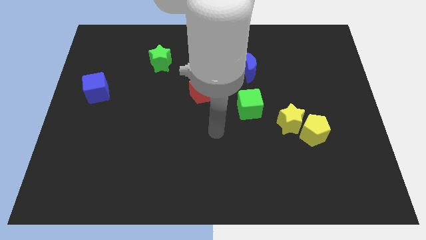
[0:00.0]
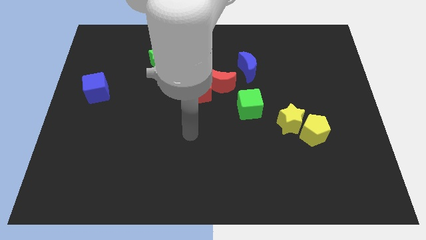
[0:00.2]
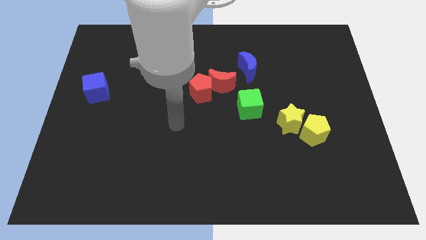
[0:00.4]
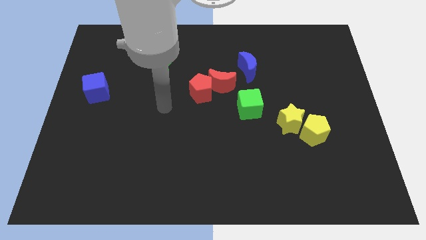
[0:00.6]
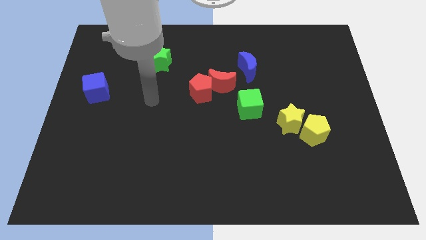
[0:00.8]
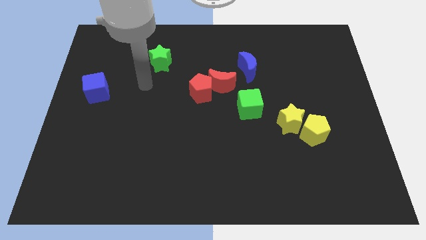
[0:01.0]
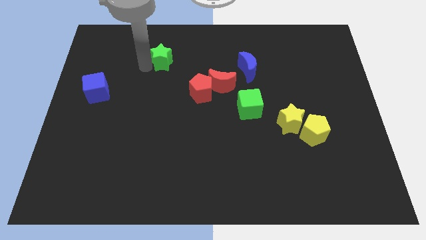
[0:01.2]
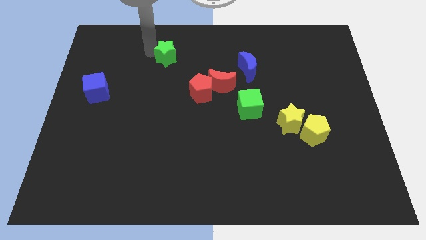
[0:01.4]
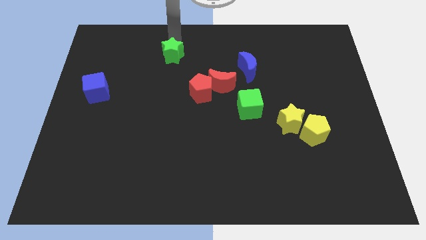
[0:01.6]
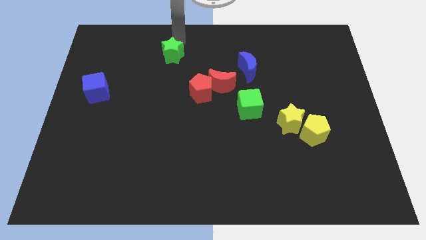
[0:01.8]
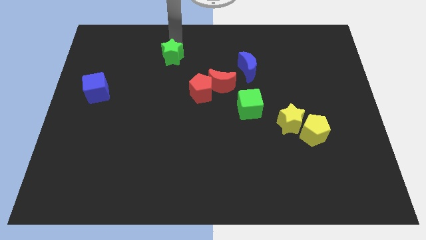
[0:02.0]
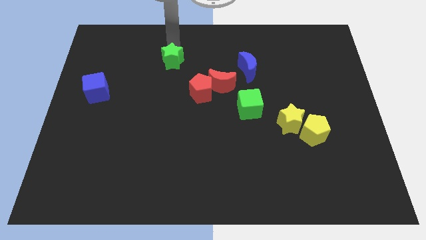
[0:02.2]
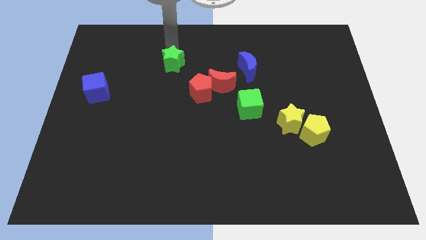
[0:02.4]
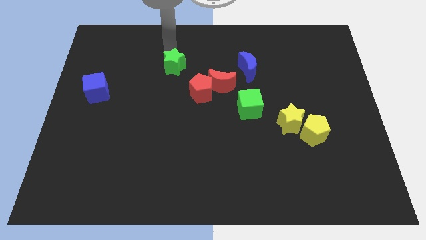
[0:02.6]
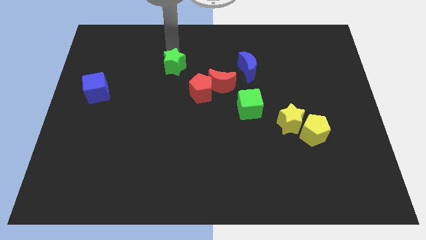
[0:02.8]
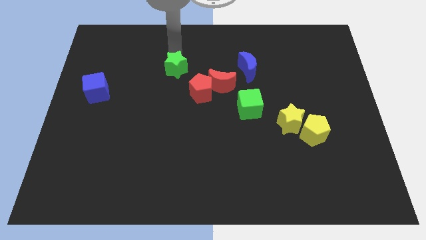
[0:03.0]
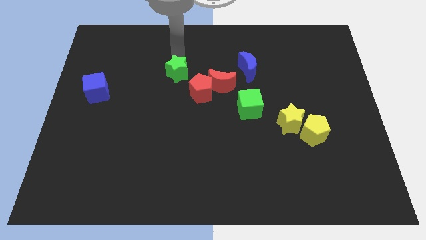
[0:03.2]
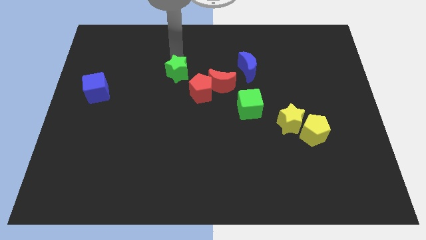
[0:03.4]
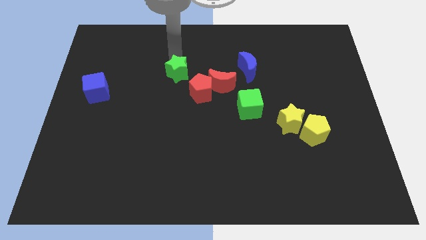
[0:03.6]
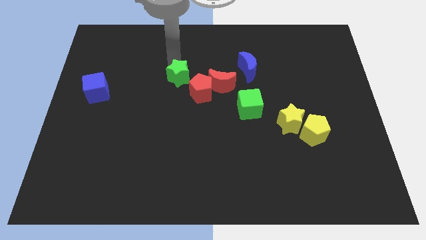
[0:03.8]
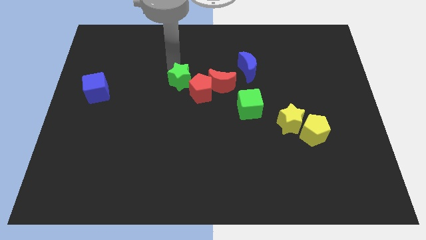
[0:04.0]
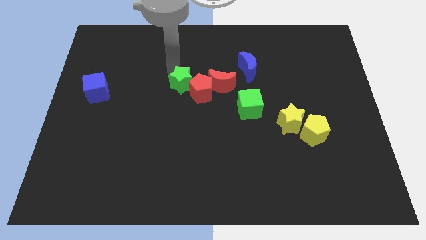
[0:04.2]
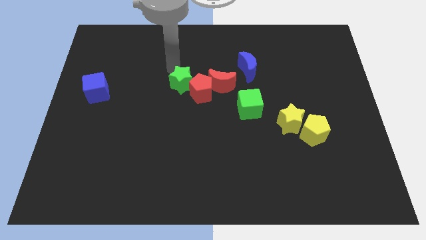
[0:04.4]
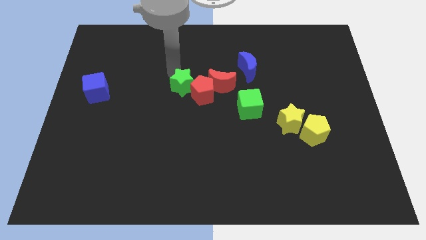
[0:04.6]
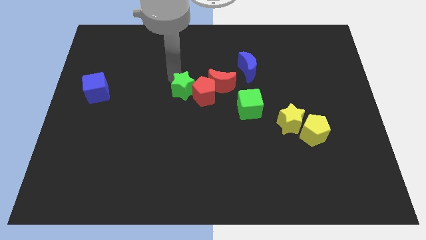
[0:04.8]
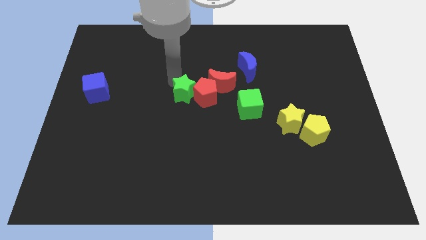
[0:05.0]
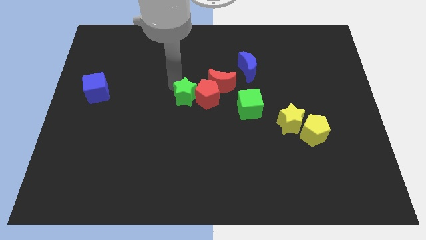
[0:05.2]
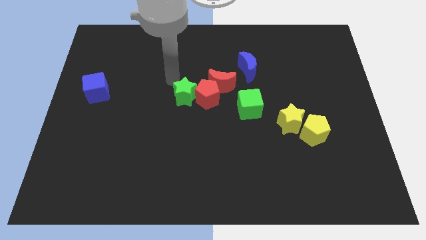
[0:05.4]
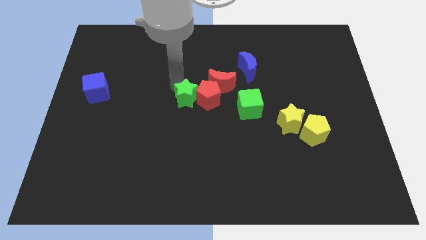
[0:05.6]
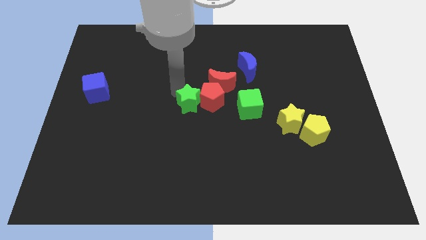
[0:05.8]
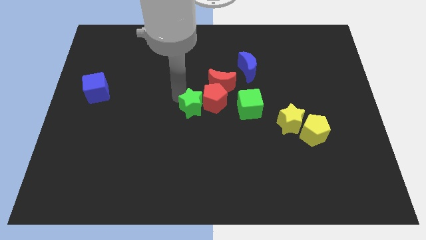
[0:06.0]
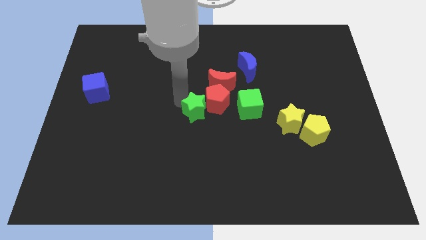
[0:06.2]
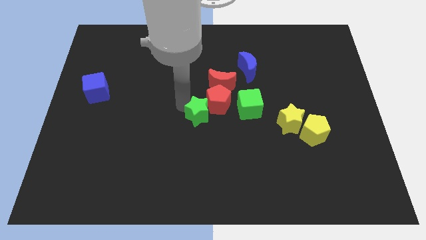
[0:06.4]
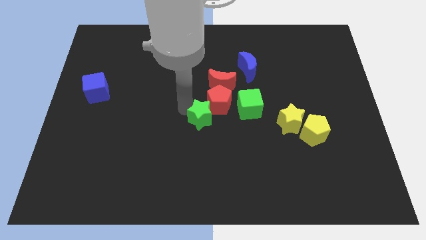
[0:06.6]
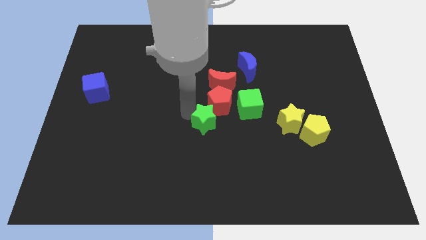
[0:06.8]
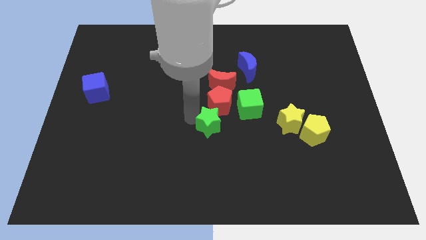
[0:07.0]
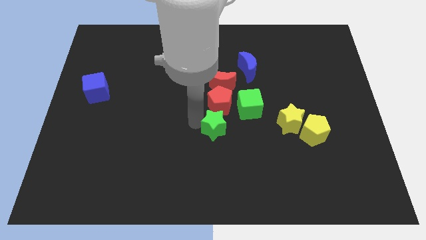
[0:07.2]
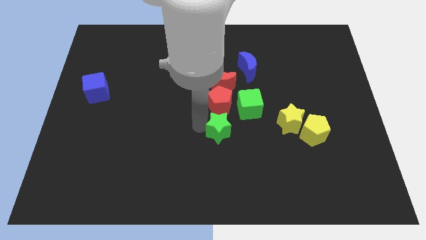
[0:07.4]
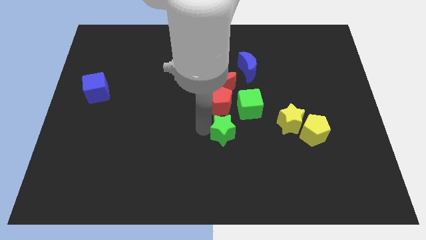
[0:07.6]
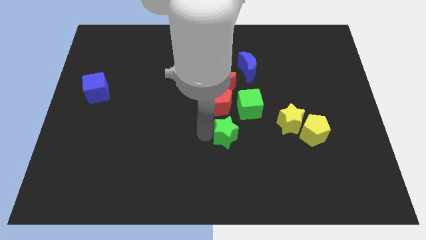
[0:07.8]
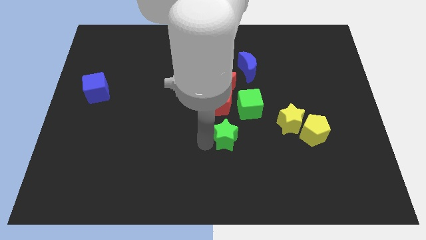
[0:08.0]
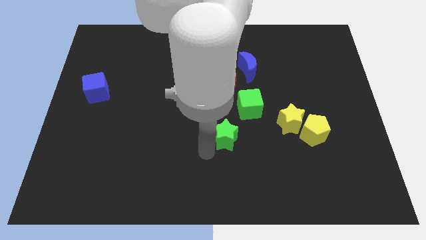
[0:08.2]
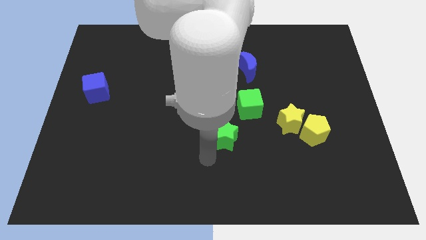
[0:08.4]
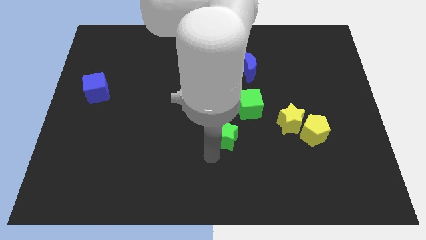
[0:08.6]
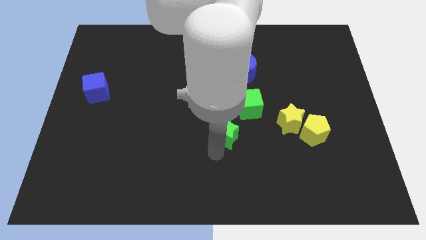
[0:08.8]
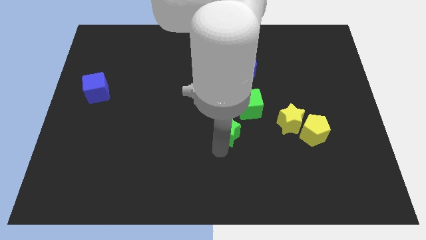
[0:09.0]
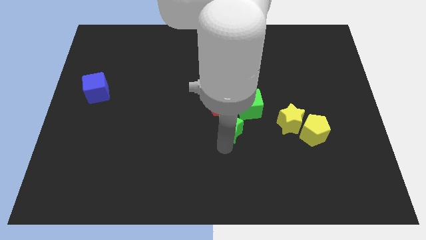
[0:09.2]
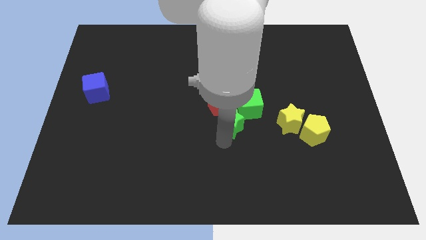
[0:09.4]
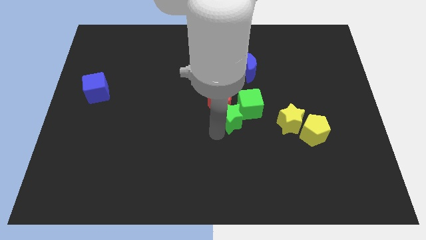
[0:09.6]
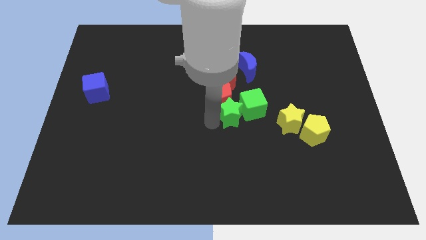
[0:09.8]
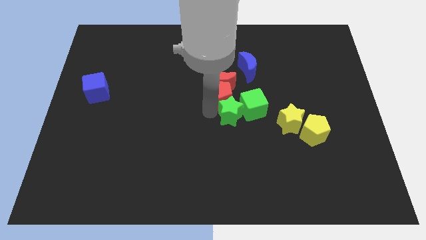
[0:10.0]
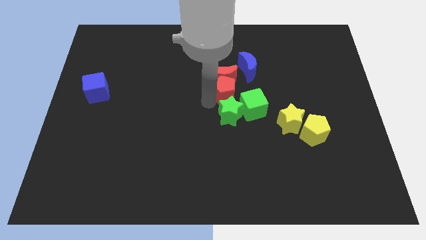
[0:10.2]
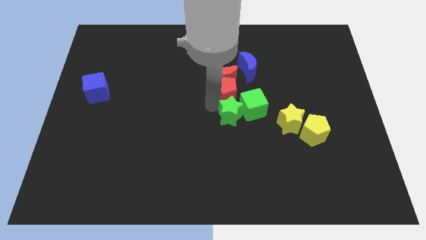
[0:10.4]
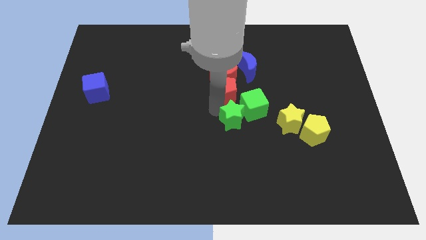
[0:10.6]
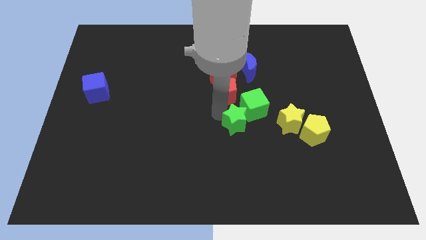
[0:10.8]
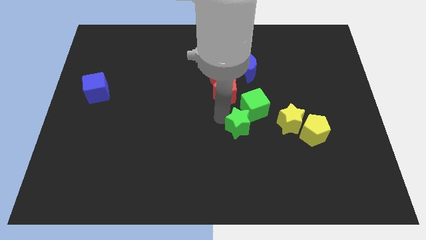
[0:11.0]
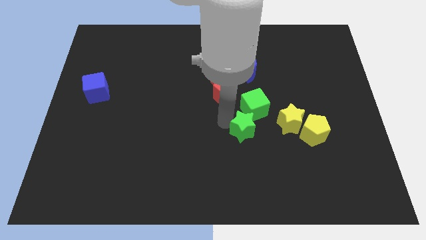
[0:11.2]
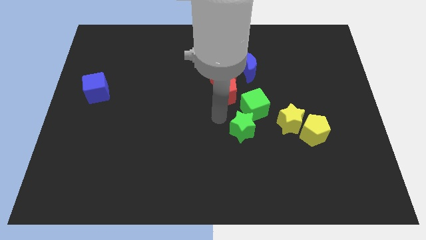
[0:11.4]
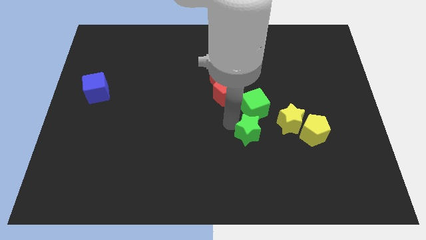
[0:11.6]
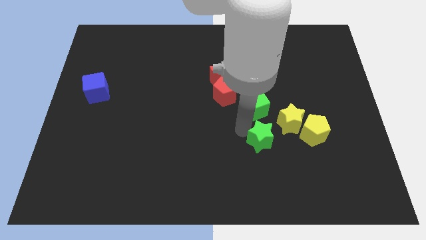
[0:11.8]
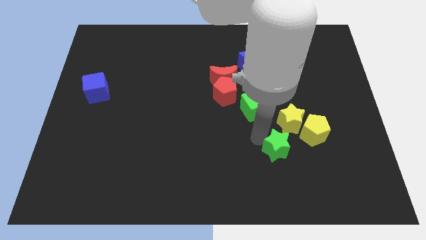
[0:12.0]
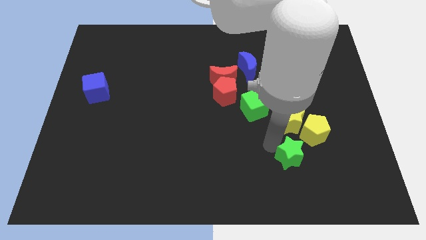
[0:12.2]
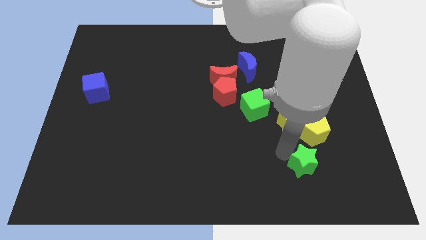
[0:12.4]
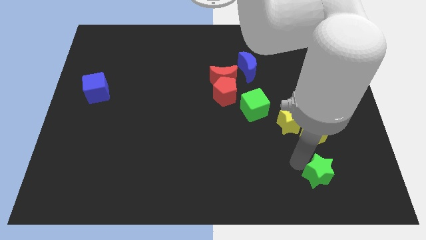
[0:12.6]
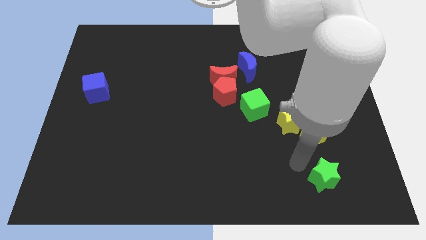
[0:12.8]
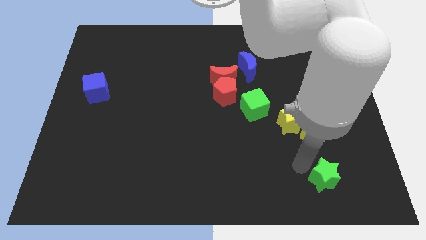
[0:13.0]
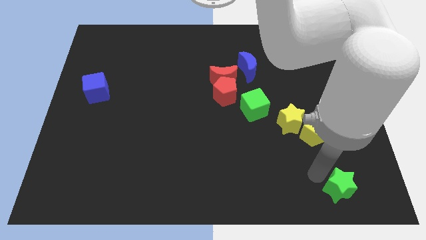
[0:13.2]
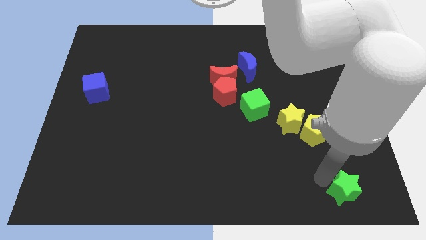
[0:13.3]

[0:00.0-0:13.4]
push the green star to the bottom right of the board
